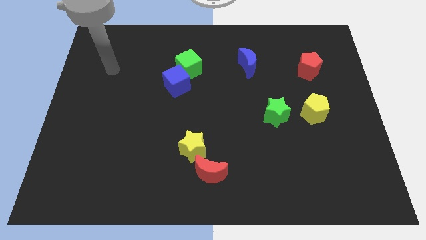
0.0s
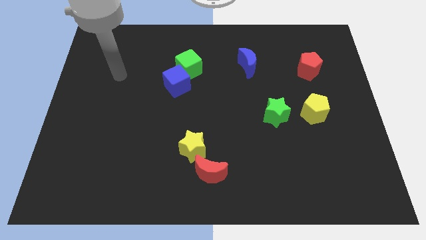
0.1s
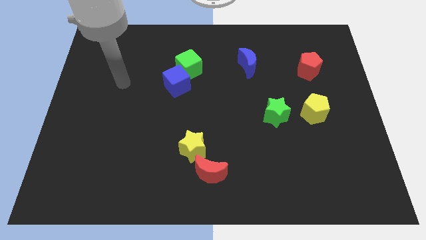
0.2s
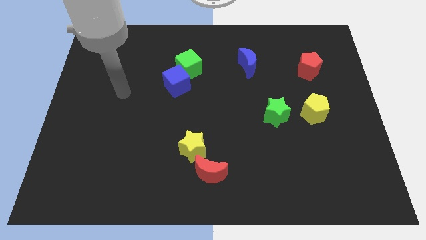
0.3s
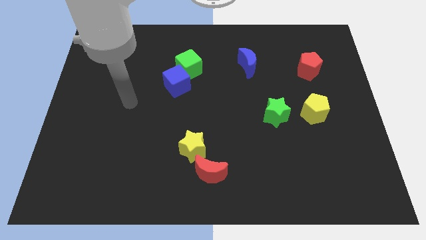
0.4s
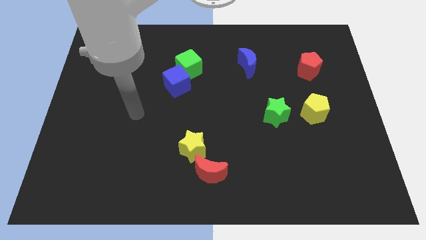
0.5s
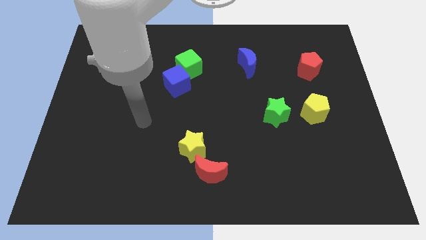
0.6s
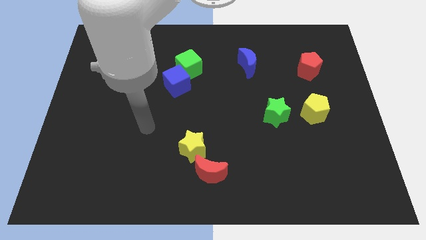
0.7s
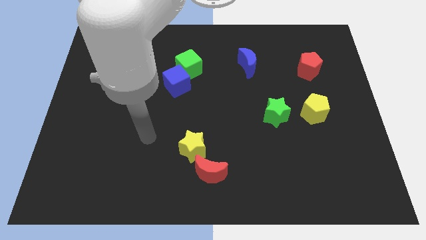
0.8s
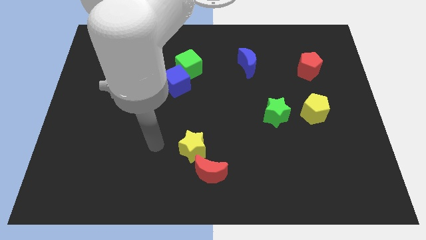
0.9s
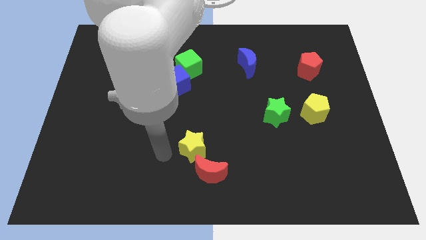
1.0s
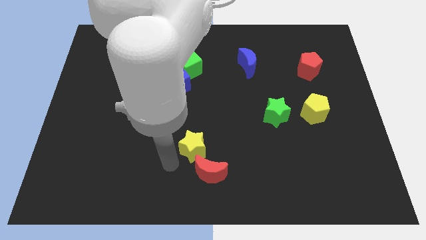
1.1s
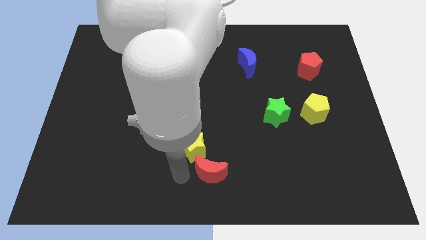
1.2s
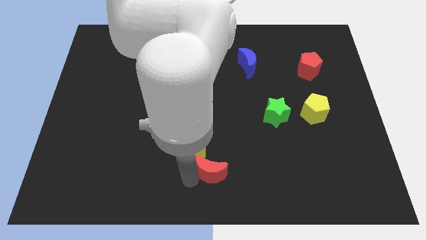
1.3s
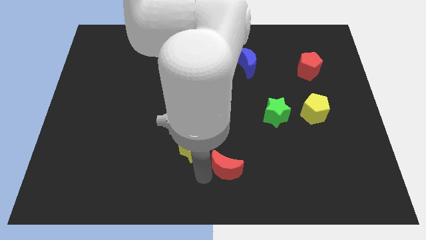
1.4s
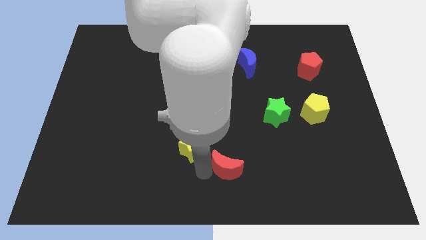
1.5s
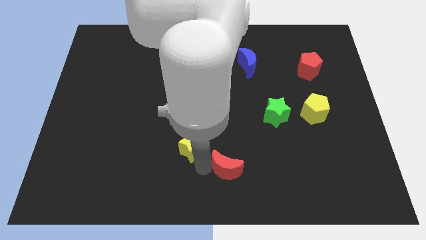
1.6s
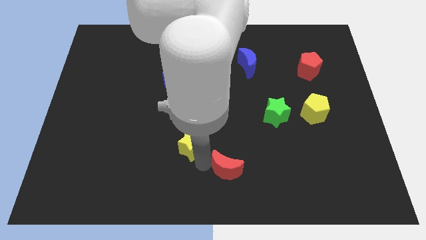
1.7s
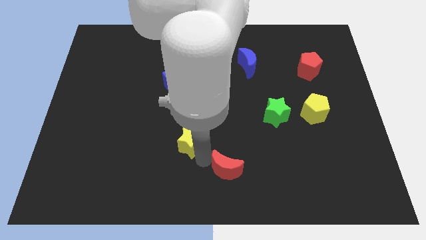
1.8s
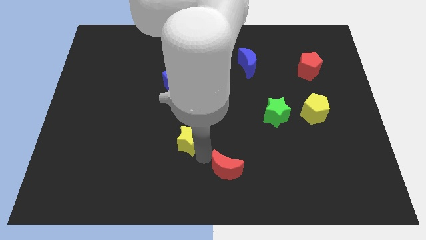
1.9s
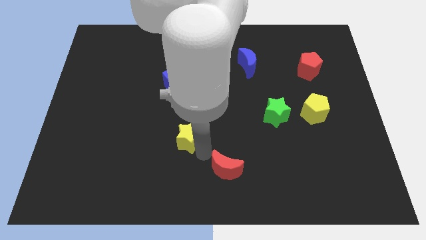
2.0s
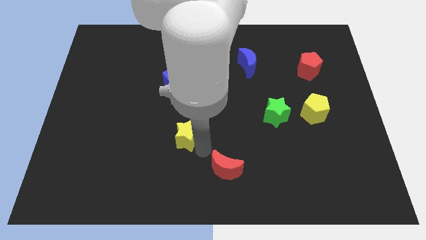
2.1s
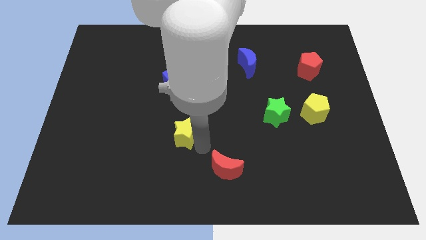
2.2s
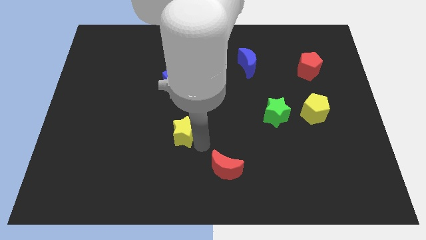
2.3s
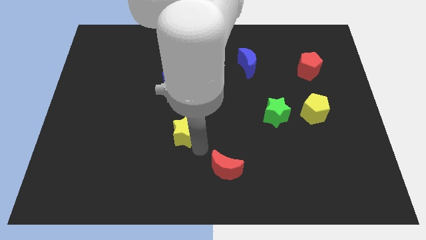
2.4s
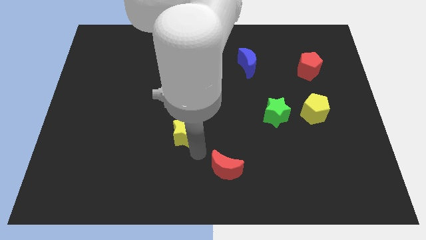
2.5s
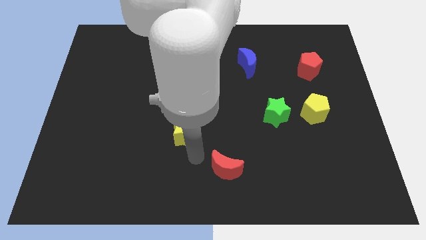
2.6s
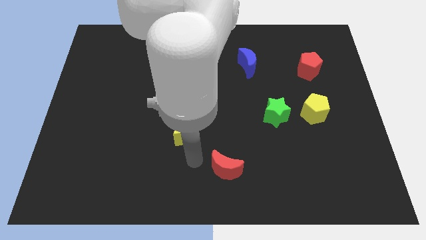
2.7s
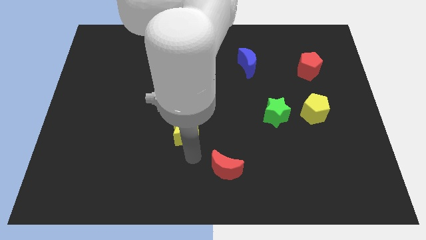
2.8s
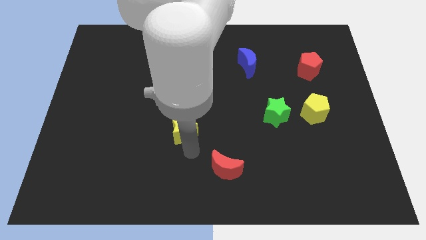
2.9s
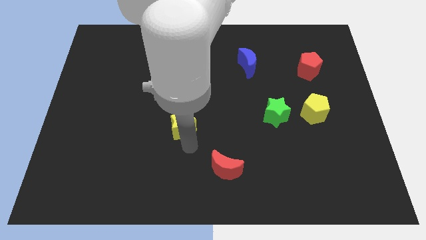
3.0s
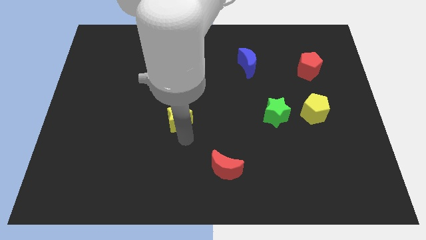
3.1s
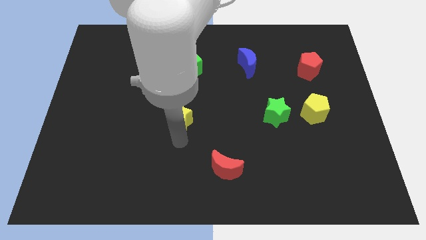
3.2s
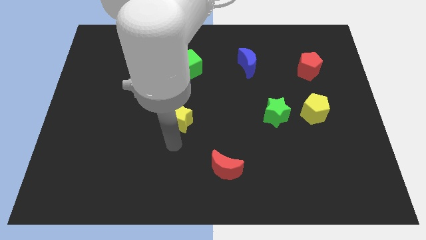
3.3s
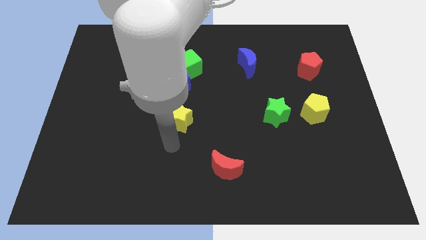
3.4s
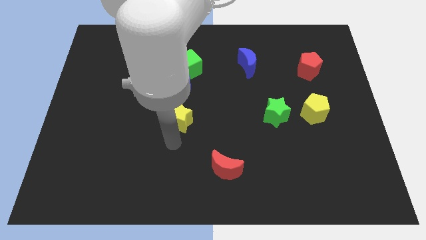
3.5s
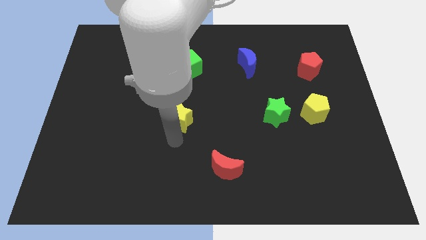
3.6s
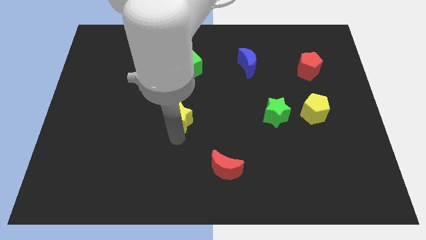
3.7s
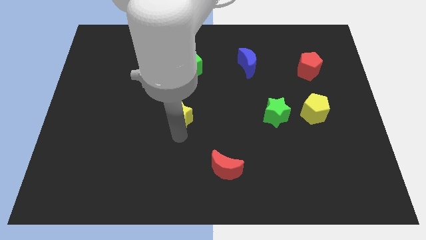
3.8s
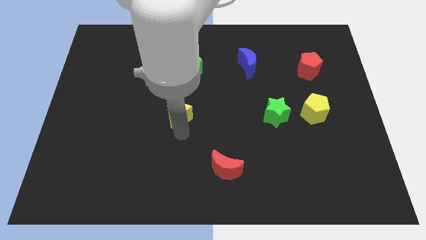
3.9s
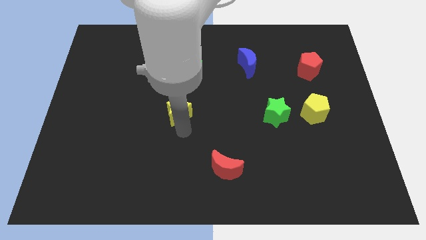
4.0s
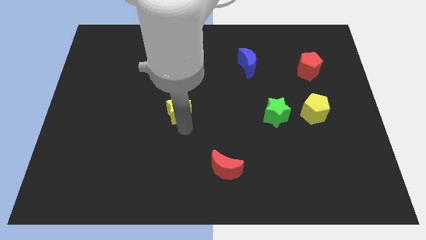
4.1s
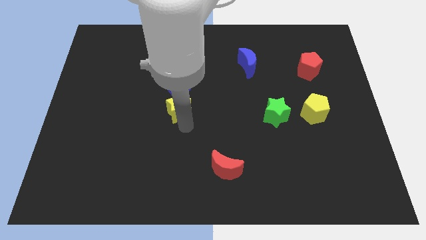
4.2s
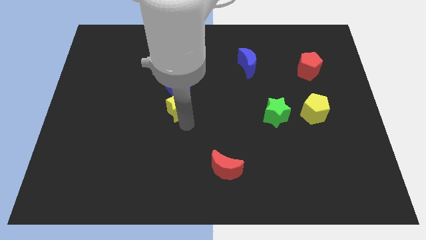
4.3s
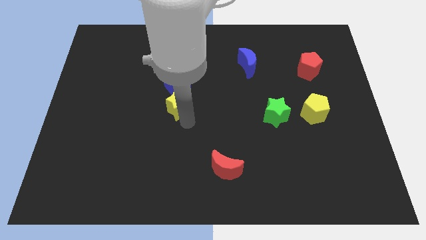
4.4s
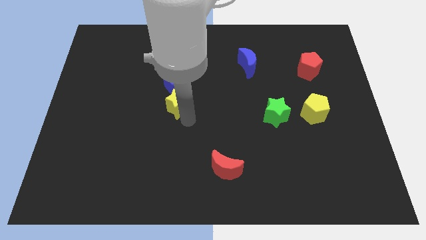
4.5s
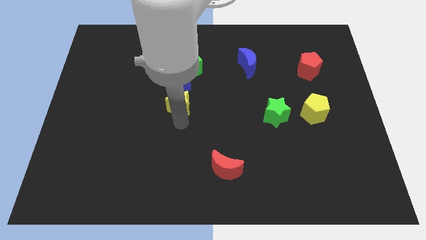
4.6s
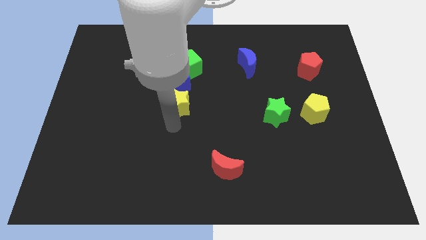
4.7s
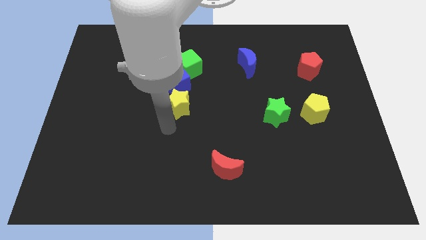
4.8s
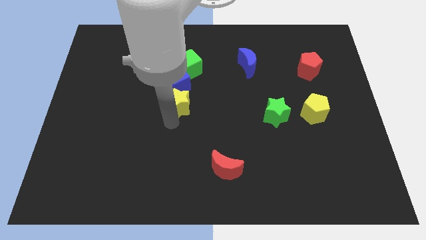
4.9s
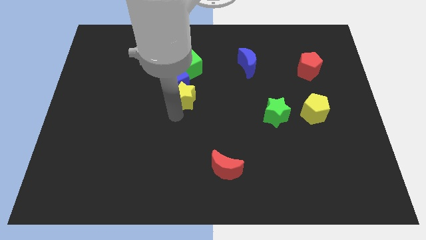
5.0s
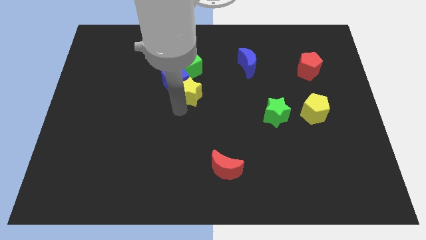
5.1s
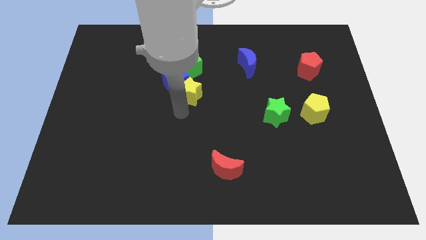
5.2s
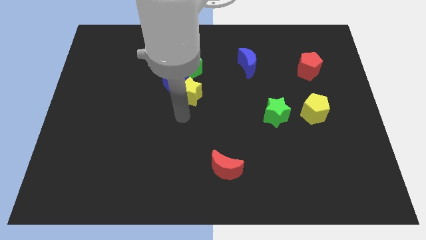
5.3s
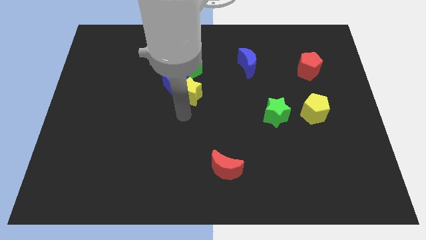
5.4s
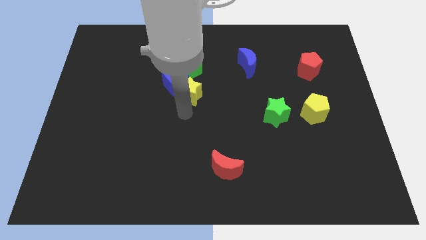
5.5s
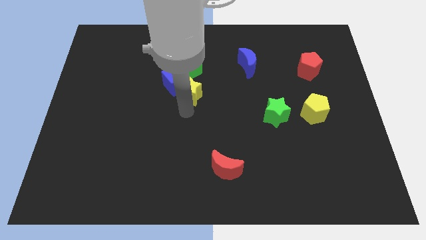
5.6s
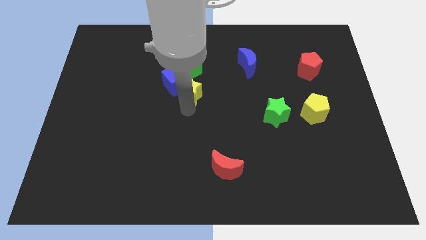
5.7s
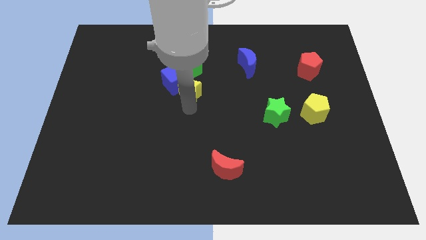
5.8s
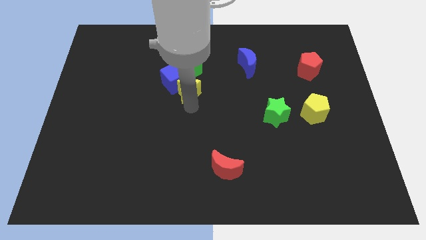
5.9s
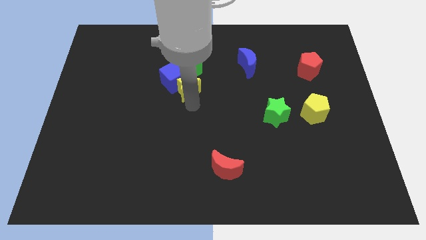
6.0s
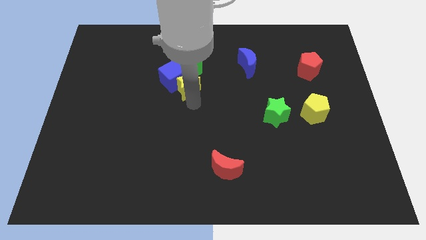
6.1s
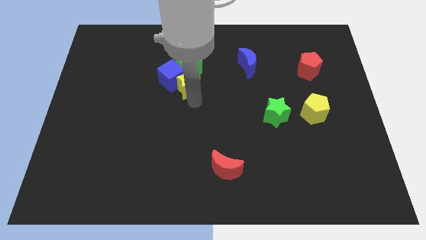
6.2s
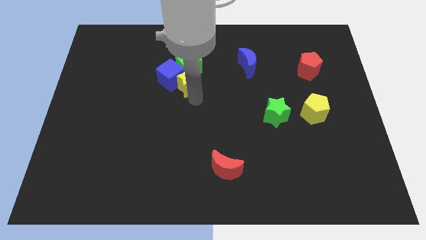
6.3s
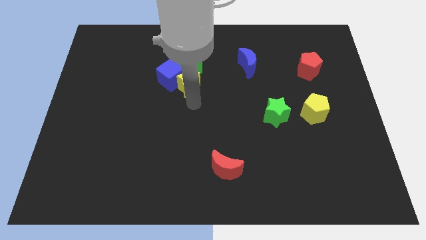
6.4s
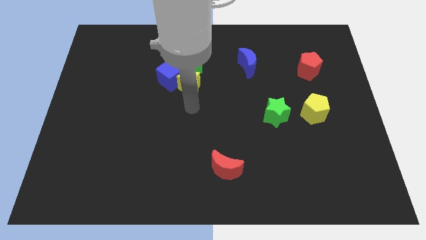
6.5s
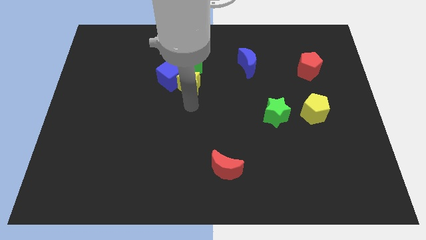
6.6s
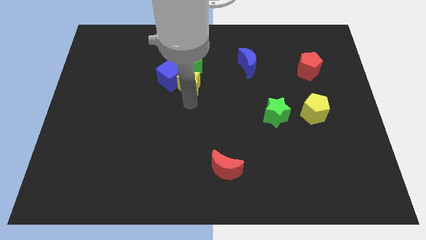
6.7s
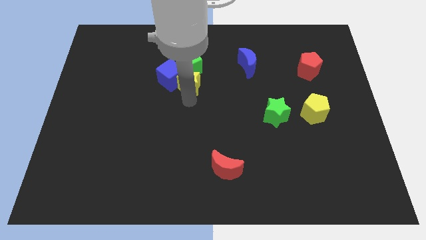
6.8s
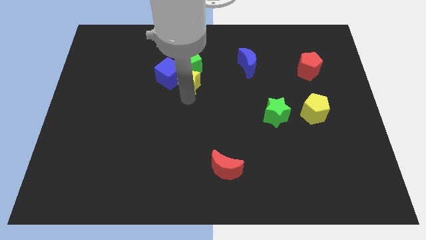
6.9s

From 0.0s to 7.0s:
move the yellow star close to the green cube

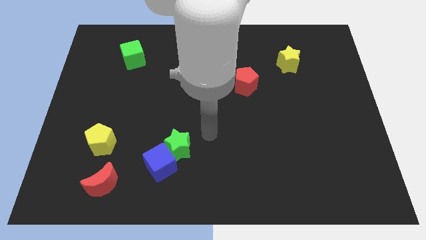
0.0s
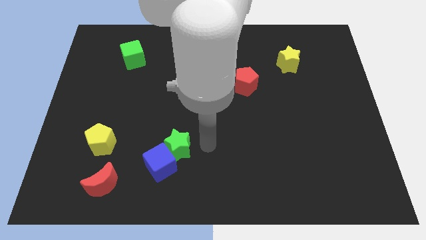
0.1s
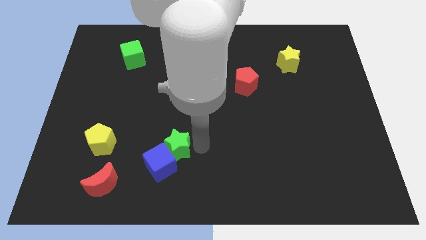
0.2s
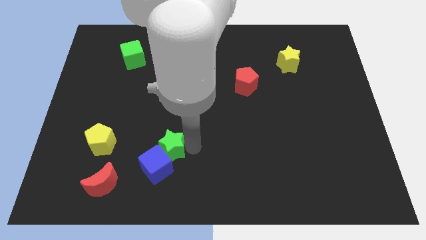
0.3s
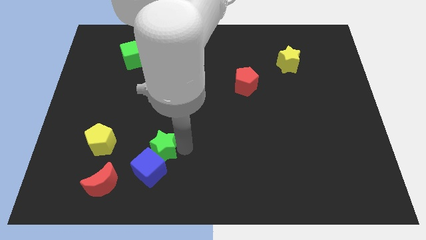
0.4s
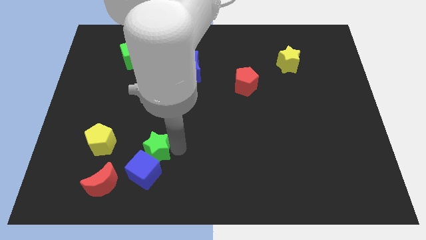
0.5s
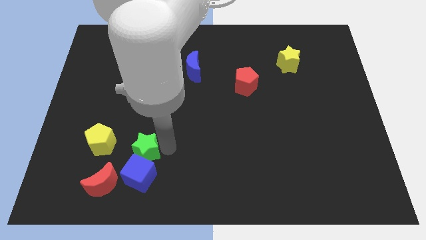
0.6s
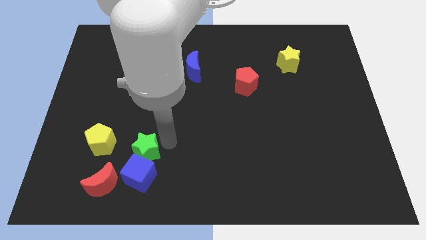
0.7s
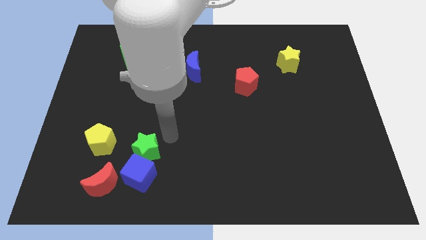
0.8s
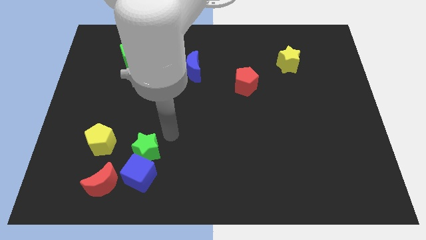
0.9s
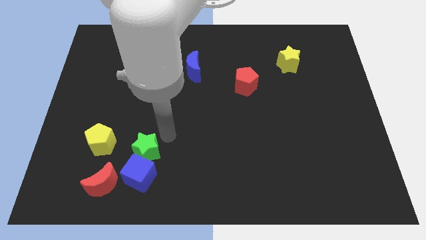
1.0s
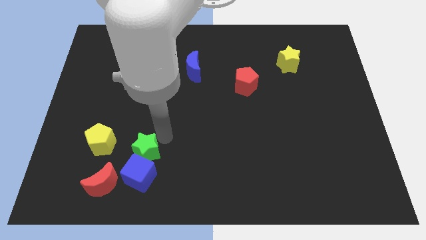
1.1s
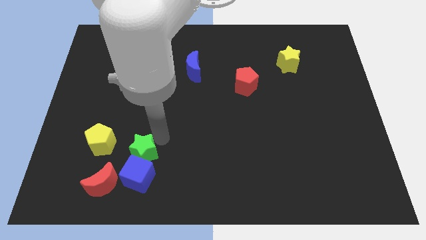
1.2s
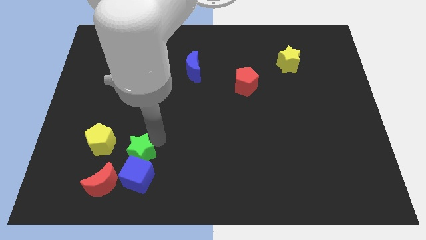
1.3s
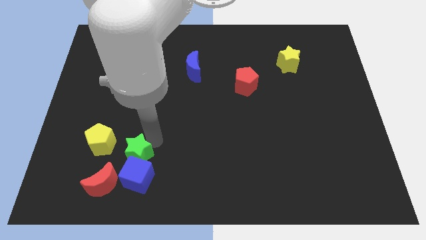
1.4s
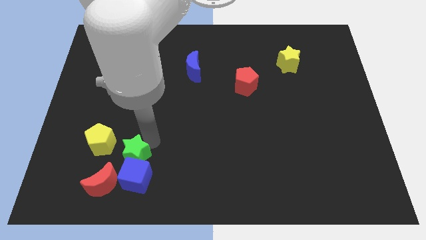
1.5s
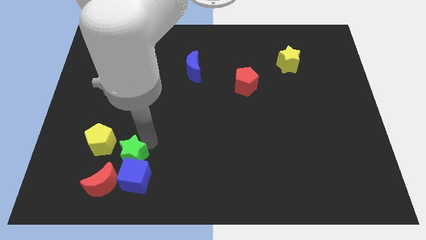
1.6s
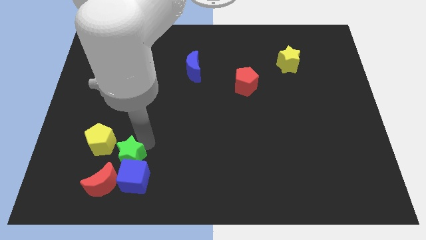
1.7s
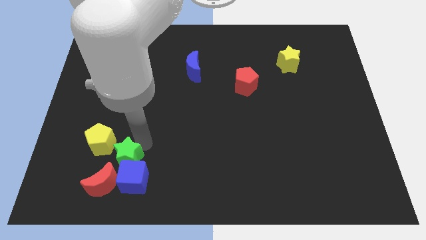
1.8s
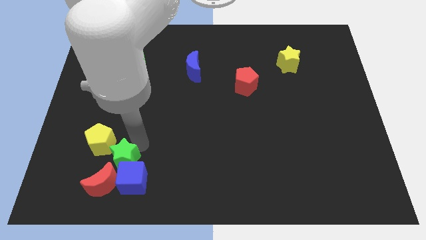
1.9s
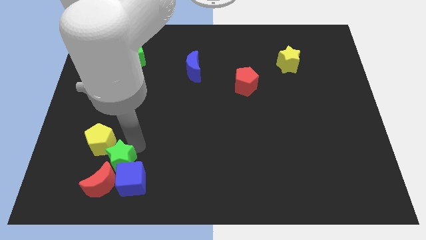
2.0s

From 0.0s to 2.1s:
move the green star towards the red moon
